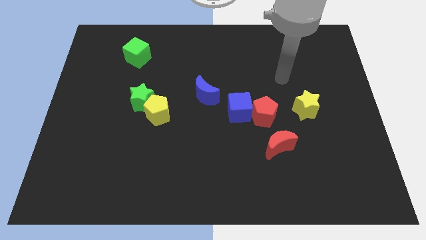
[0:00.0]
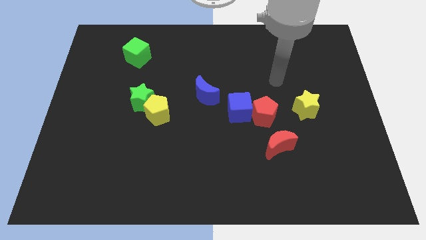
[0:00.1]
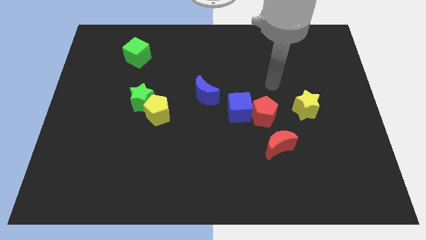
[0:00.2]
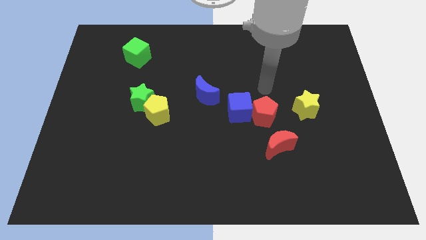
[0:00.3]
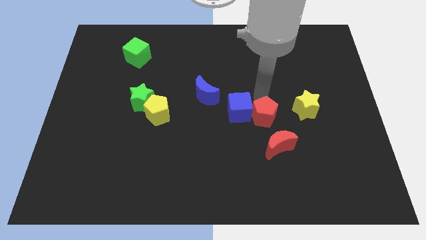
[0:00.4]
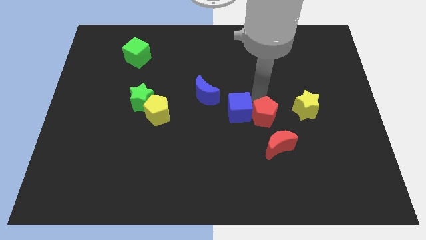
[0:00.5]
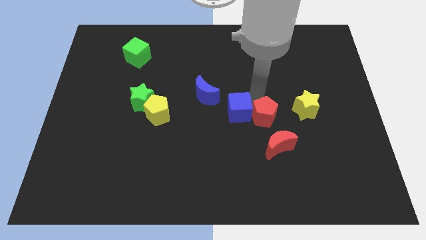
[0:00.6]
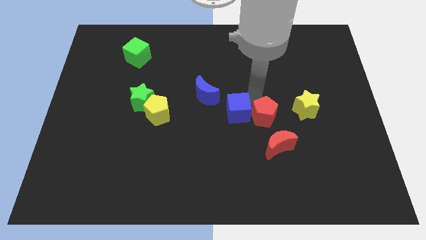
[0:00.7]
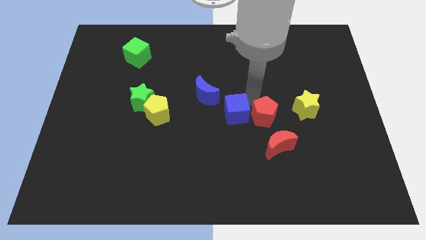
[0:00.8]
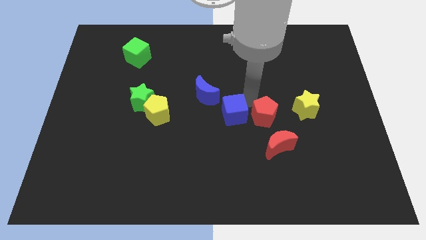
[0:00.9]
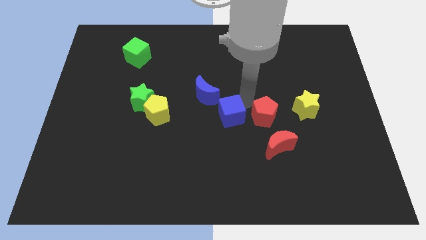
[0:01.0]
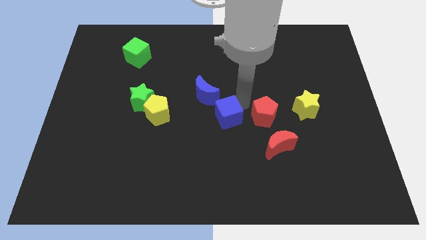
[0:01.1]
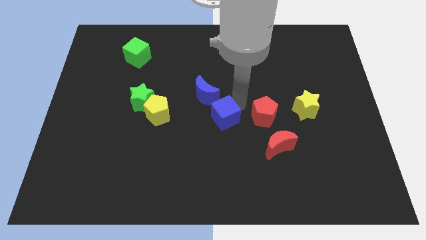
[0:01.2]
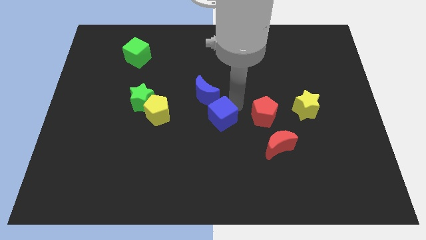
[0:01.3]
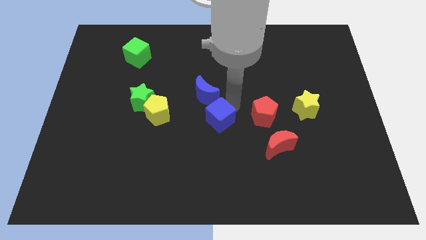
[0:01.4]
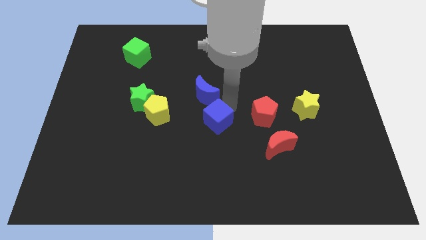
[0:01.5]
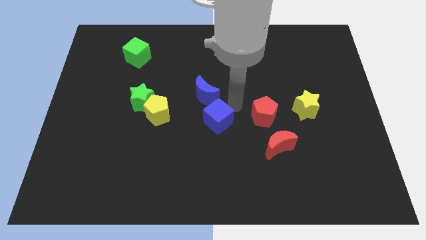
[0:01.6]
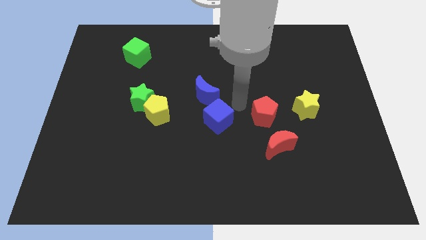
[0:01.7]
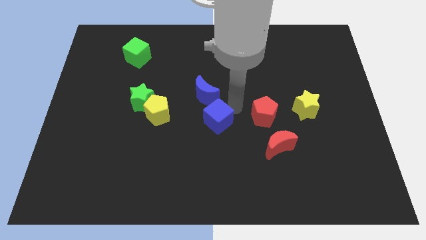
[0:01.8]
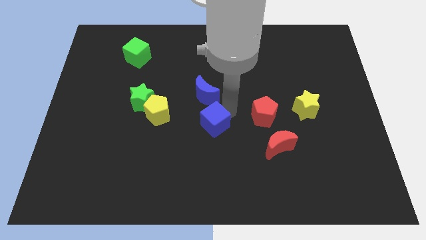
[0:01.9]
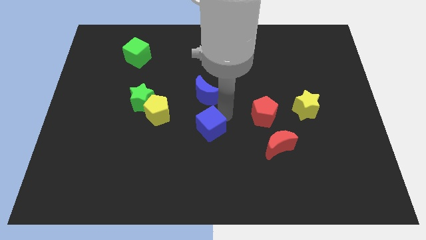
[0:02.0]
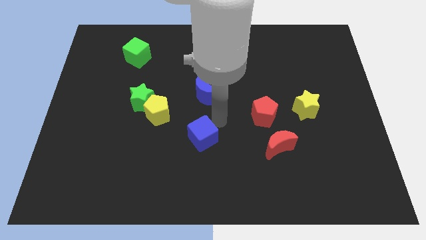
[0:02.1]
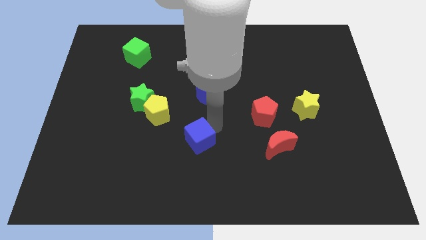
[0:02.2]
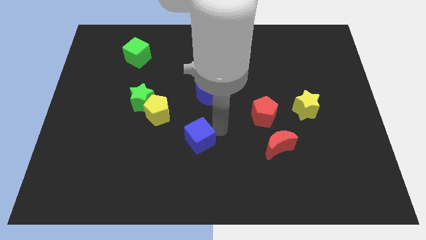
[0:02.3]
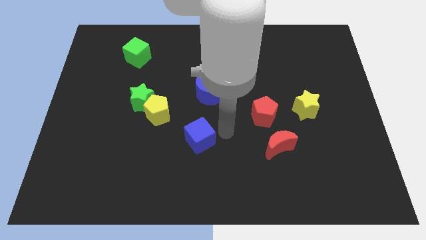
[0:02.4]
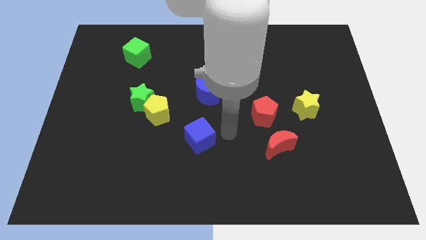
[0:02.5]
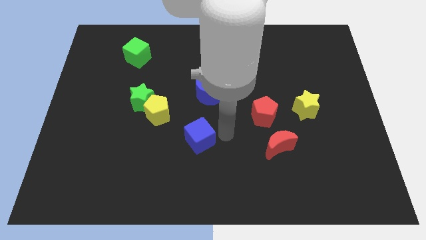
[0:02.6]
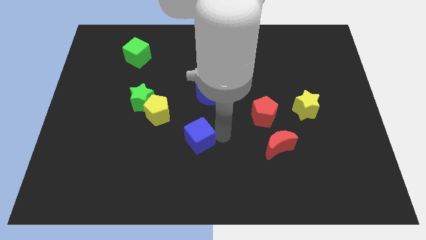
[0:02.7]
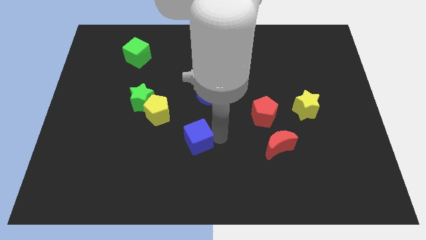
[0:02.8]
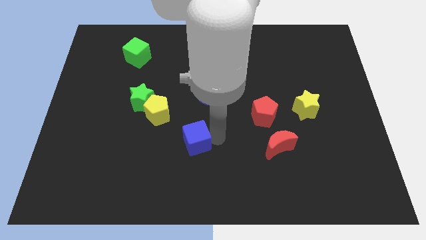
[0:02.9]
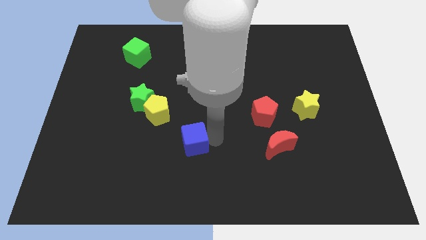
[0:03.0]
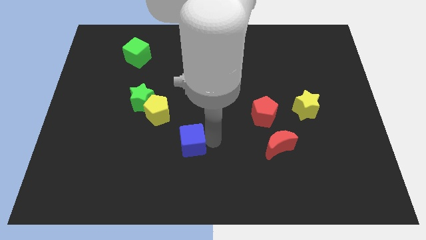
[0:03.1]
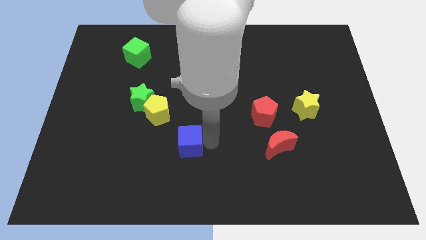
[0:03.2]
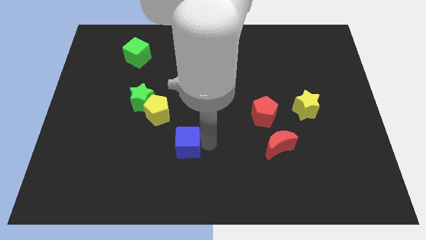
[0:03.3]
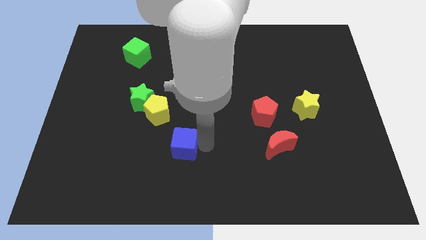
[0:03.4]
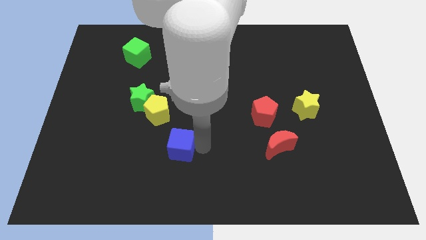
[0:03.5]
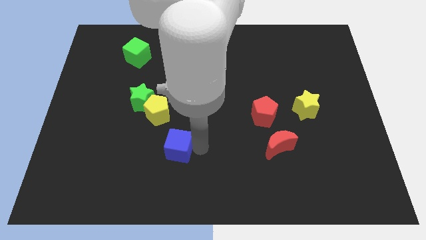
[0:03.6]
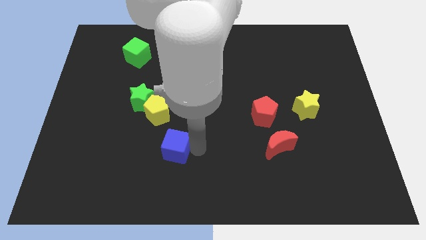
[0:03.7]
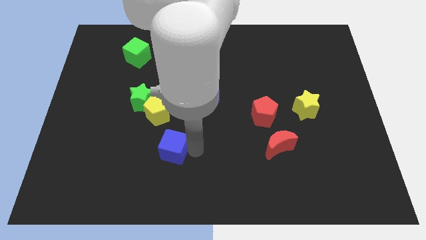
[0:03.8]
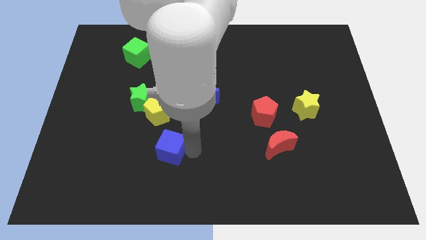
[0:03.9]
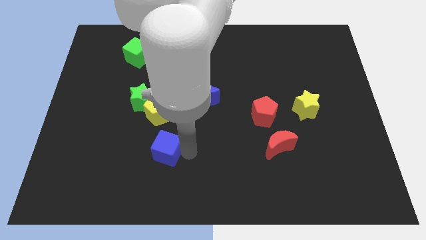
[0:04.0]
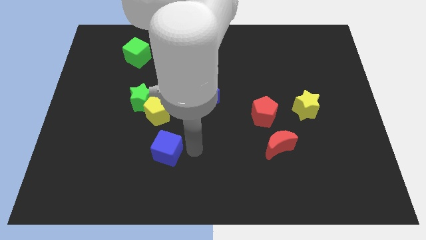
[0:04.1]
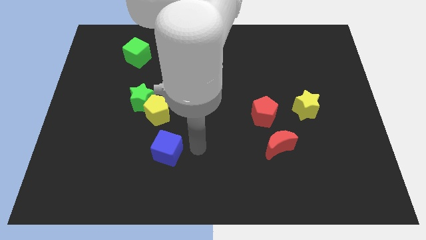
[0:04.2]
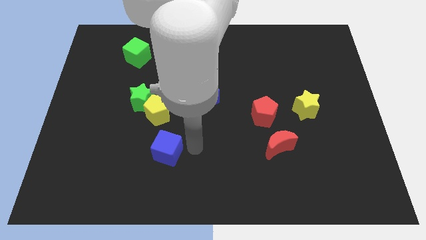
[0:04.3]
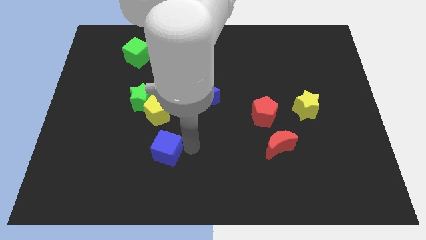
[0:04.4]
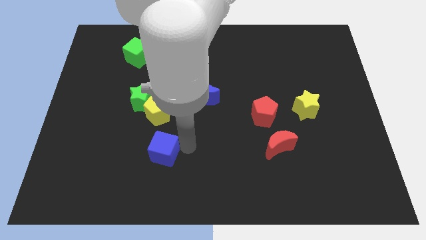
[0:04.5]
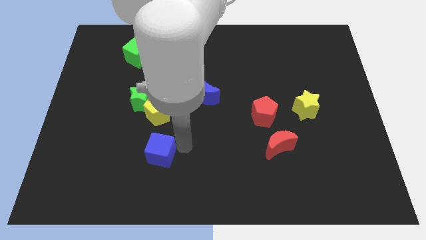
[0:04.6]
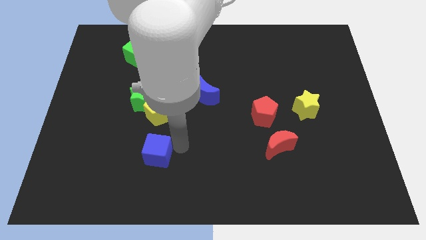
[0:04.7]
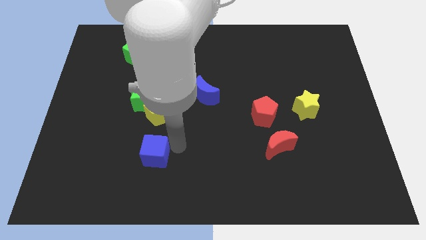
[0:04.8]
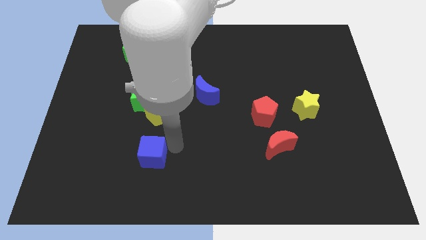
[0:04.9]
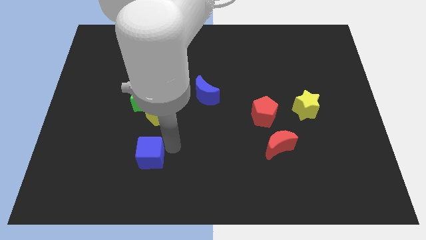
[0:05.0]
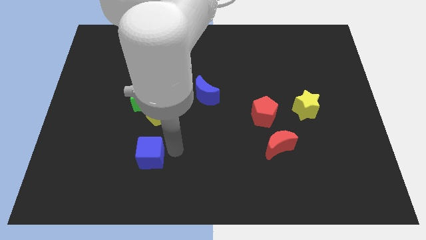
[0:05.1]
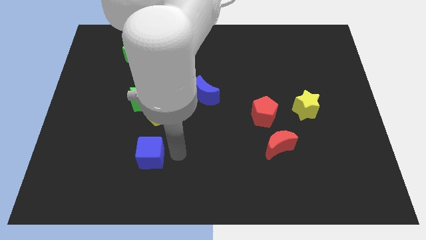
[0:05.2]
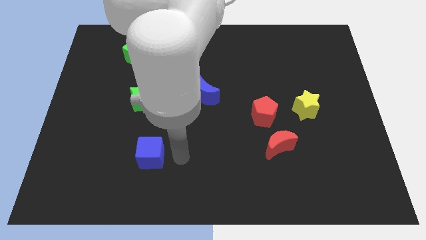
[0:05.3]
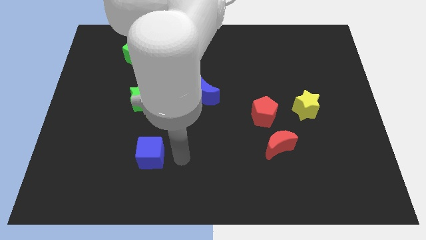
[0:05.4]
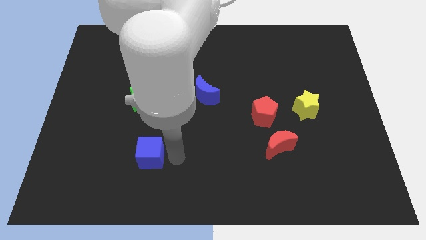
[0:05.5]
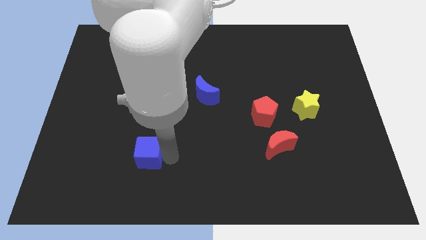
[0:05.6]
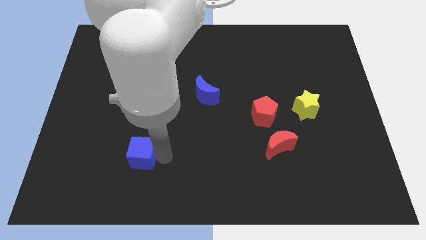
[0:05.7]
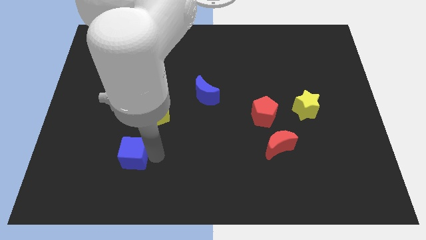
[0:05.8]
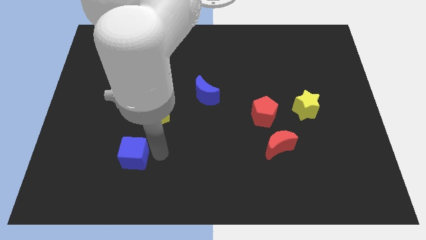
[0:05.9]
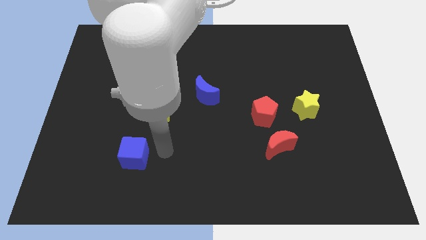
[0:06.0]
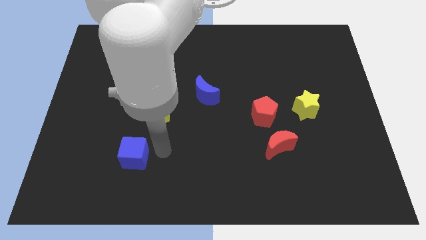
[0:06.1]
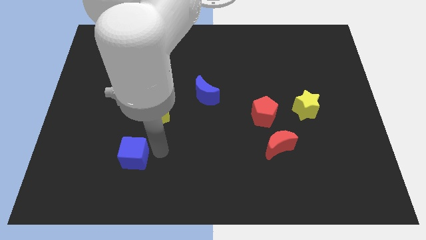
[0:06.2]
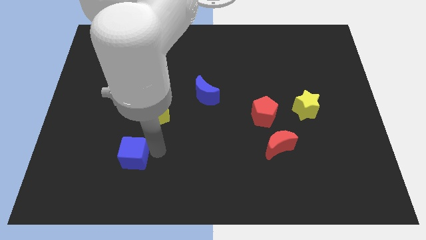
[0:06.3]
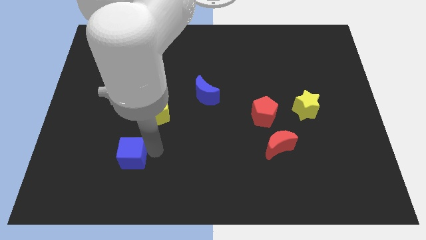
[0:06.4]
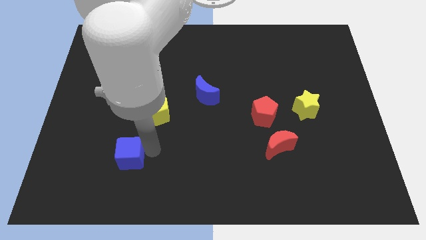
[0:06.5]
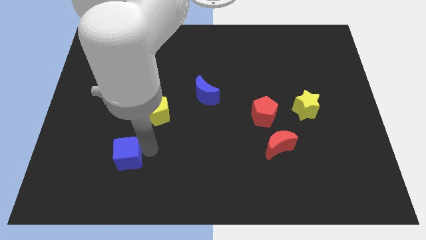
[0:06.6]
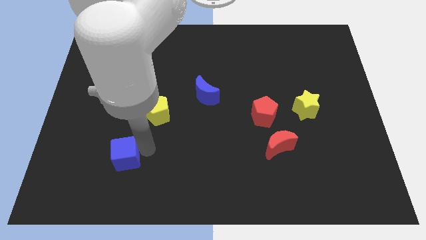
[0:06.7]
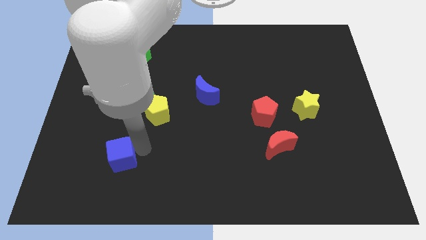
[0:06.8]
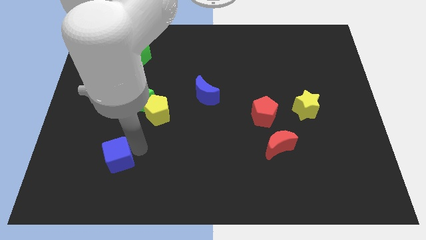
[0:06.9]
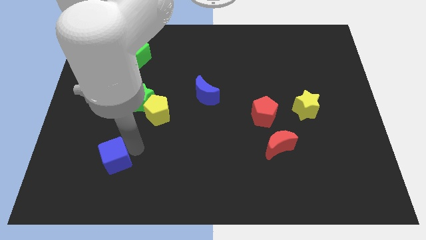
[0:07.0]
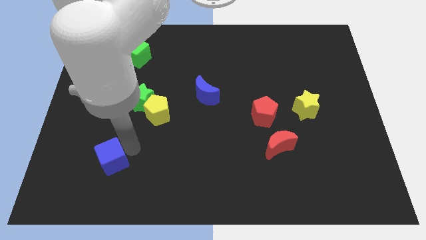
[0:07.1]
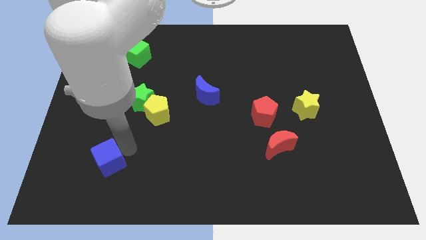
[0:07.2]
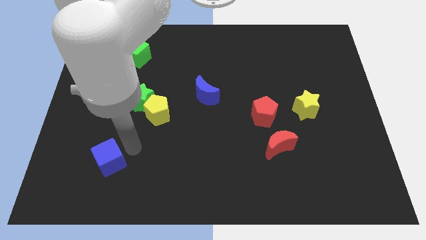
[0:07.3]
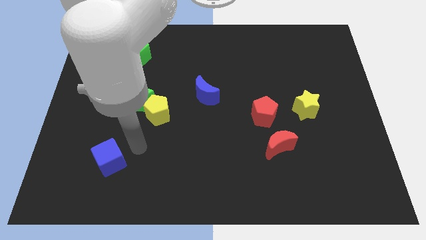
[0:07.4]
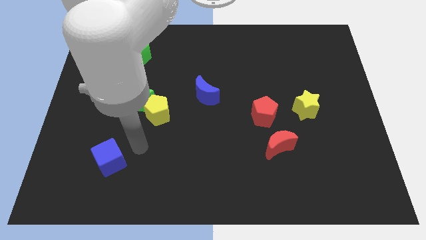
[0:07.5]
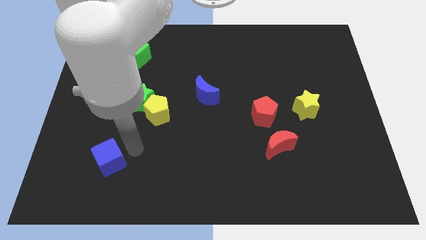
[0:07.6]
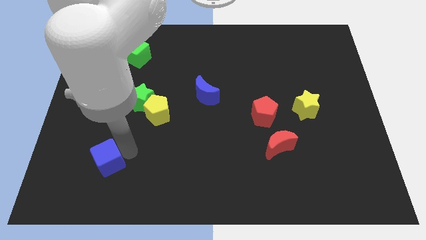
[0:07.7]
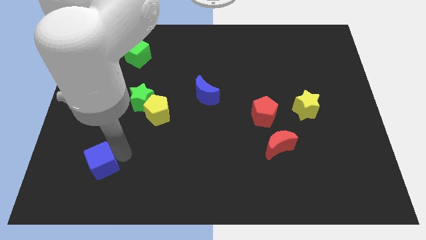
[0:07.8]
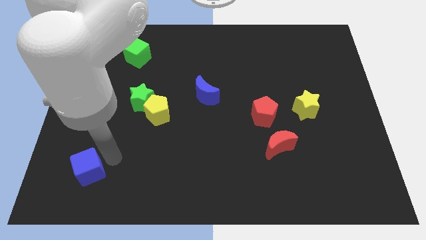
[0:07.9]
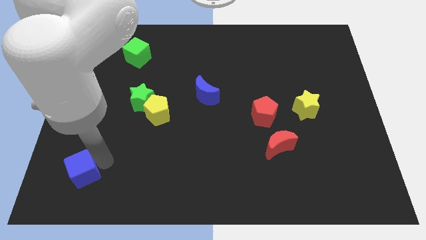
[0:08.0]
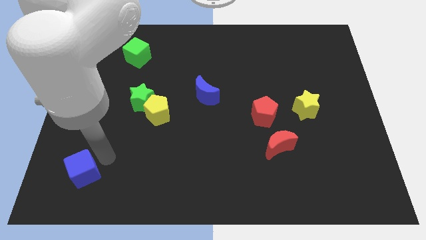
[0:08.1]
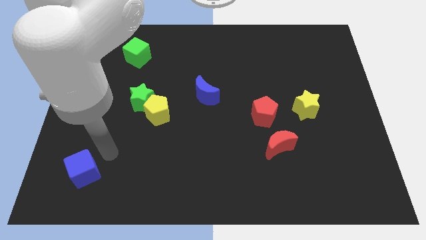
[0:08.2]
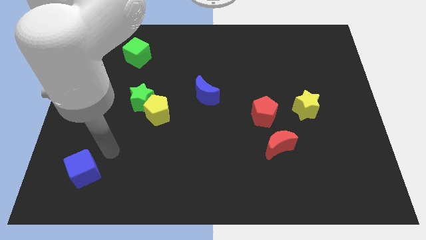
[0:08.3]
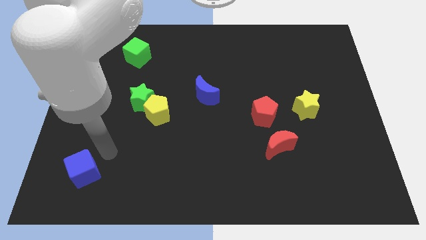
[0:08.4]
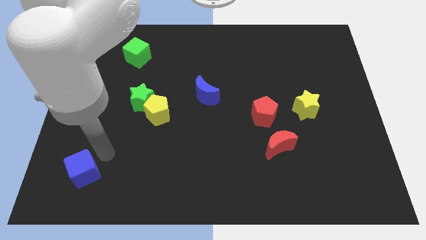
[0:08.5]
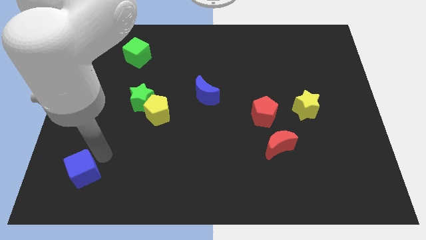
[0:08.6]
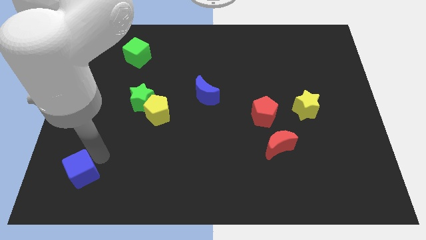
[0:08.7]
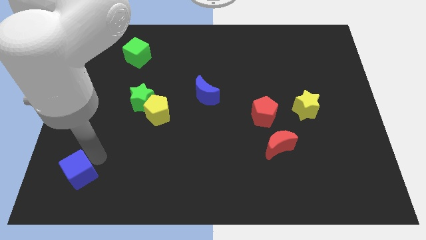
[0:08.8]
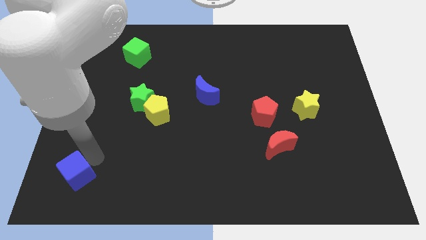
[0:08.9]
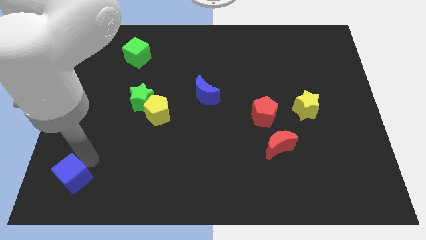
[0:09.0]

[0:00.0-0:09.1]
push the blue cube to the bottom left of the board
